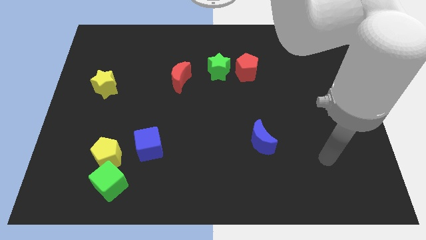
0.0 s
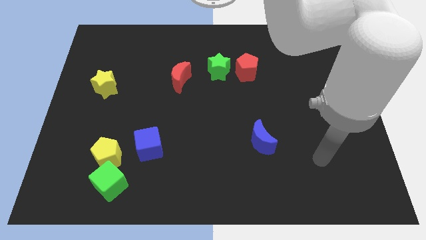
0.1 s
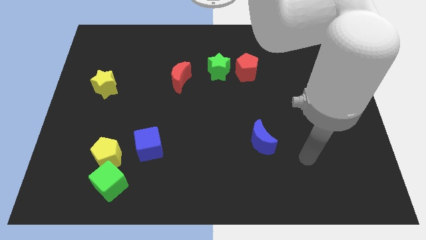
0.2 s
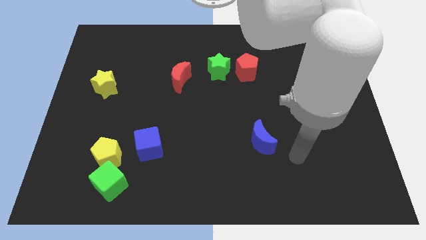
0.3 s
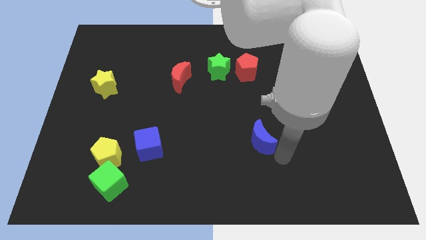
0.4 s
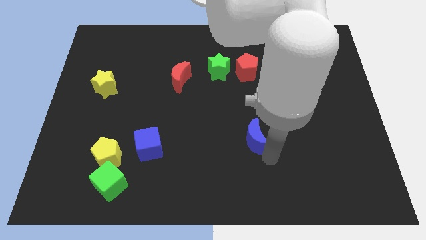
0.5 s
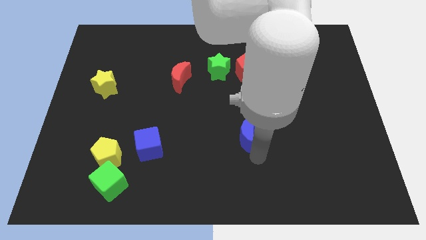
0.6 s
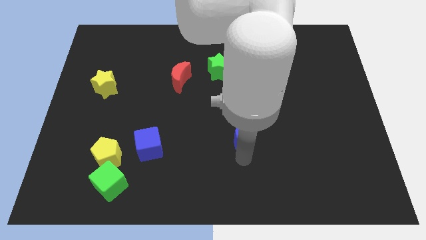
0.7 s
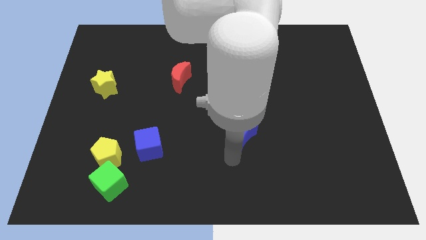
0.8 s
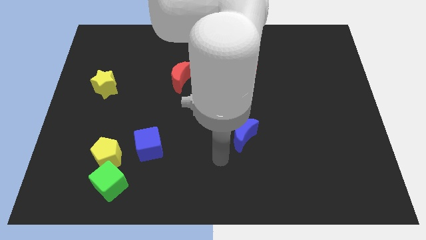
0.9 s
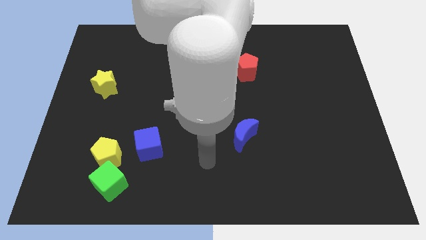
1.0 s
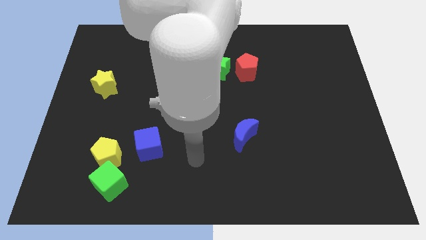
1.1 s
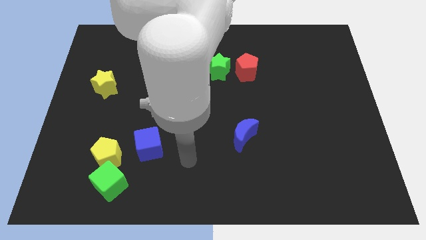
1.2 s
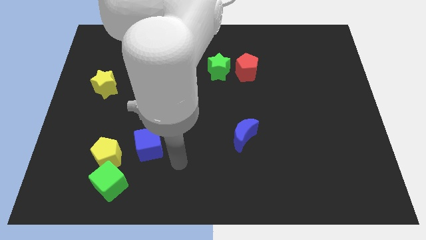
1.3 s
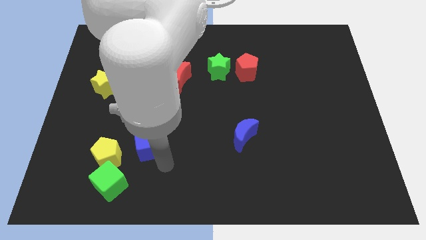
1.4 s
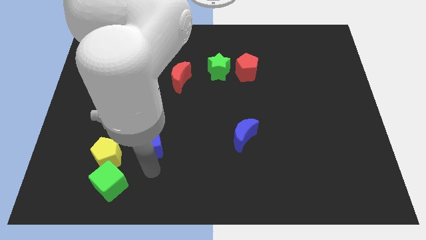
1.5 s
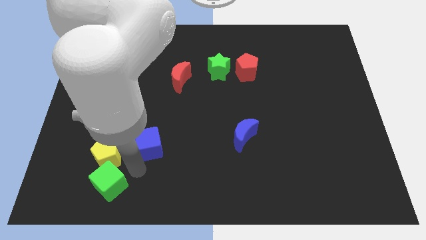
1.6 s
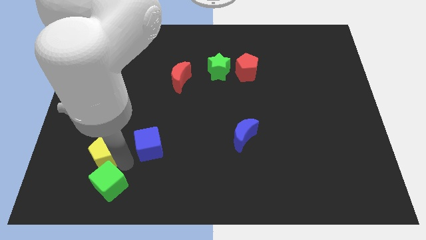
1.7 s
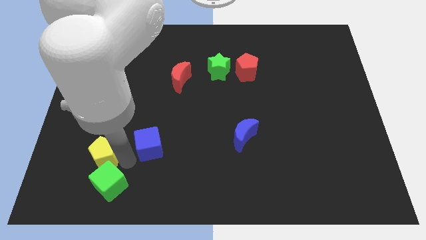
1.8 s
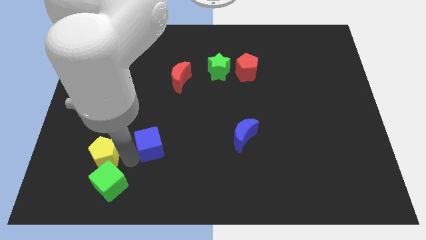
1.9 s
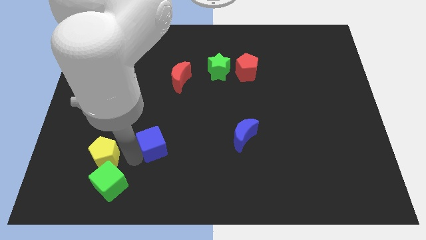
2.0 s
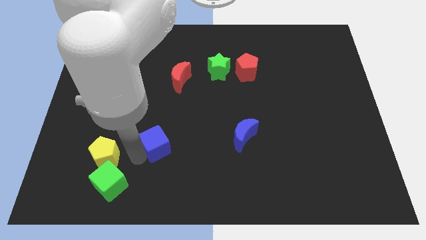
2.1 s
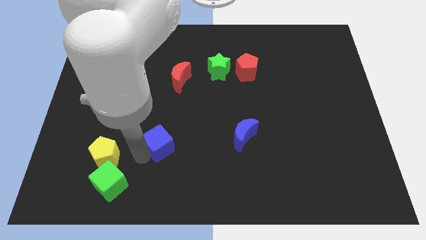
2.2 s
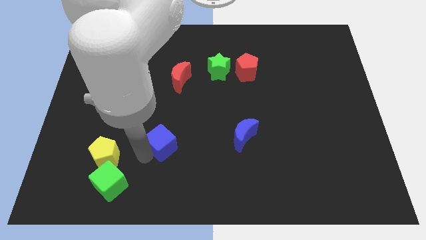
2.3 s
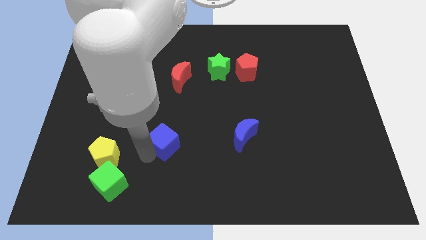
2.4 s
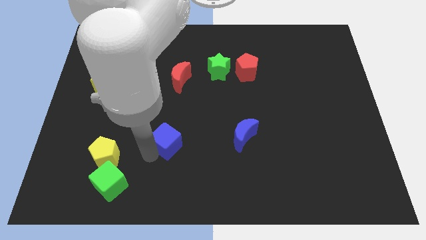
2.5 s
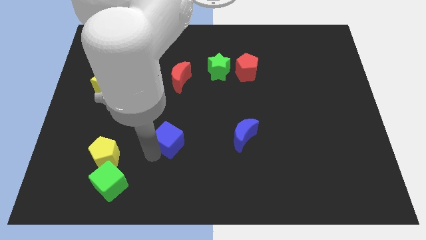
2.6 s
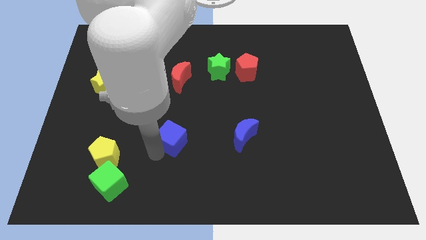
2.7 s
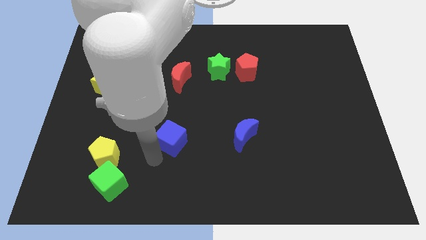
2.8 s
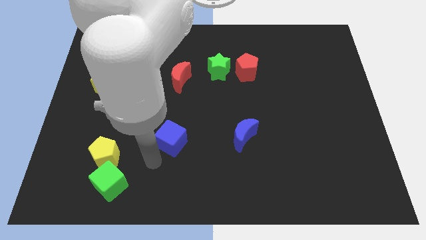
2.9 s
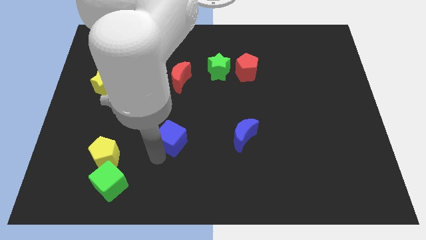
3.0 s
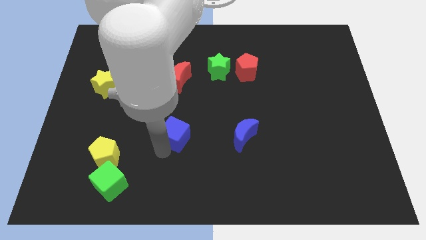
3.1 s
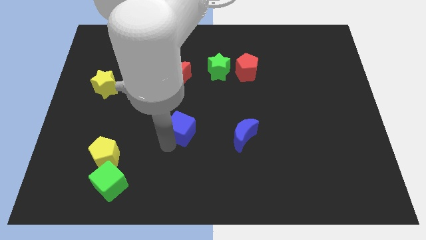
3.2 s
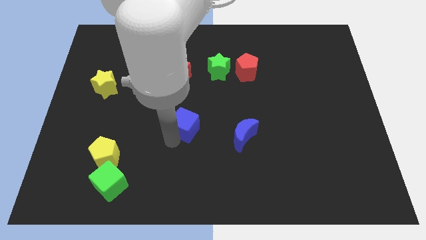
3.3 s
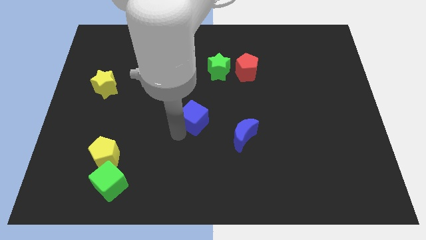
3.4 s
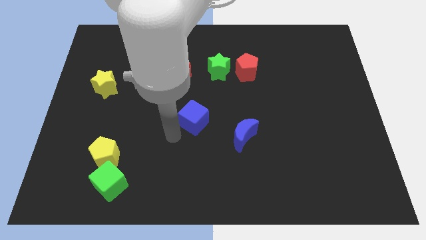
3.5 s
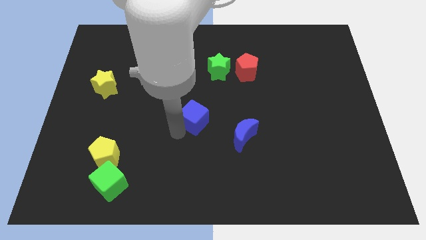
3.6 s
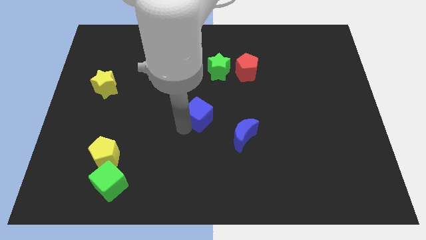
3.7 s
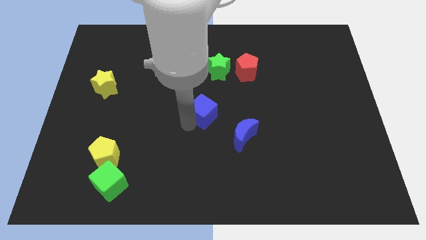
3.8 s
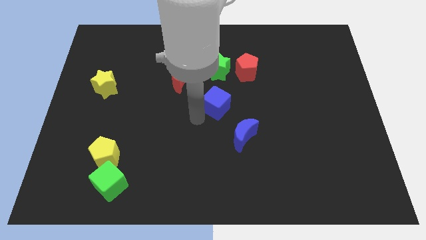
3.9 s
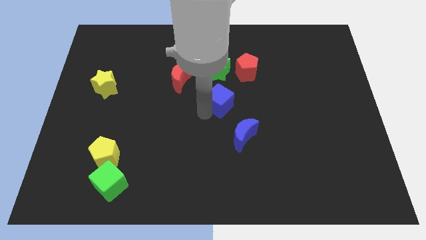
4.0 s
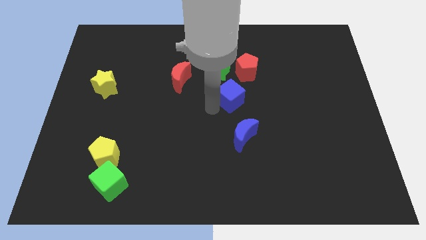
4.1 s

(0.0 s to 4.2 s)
slide the blue cube diagonally down and to the right of the green star

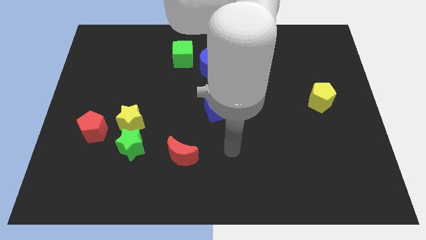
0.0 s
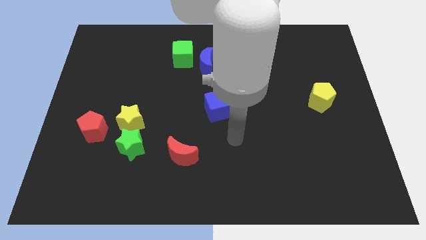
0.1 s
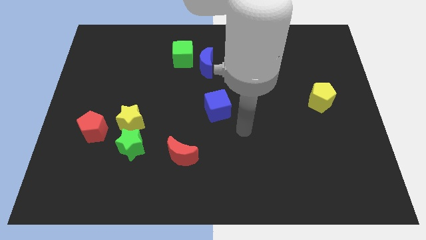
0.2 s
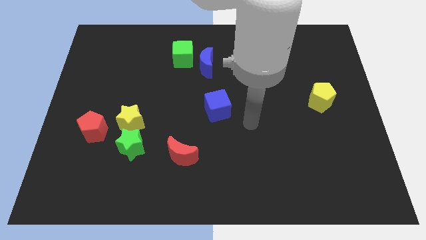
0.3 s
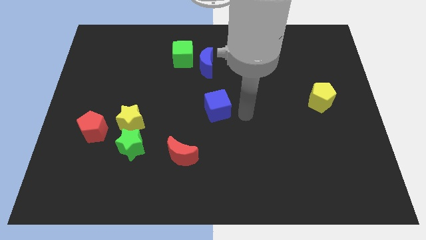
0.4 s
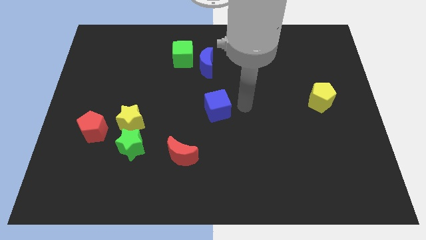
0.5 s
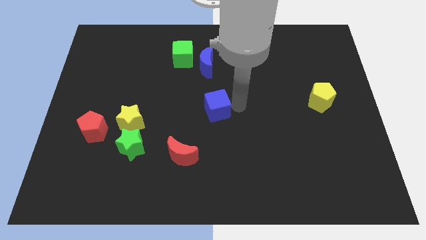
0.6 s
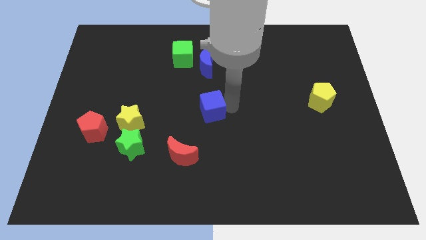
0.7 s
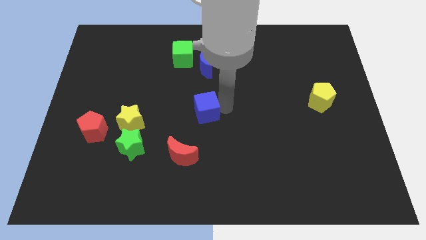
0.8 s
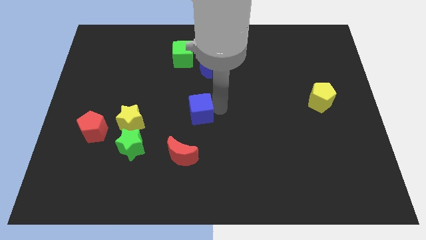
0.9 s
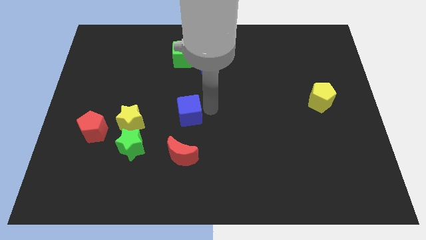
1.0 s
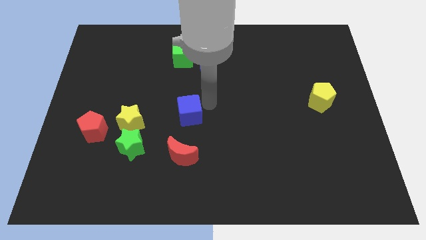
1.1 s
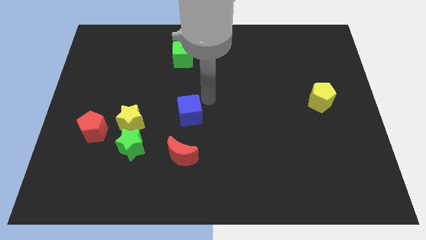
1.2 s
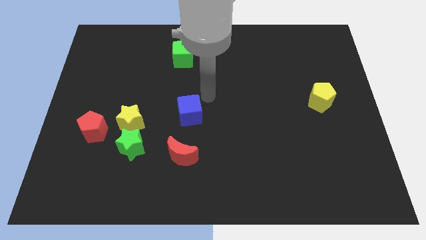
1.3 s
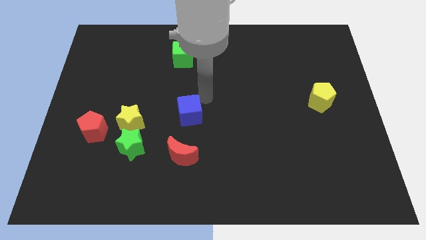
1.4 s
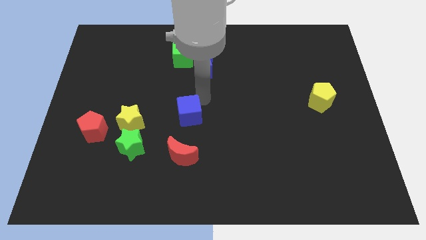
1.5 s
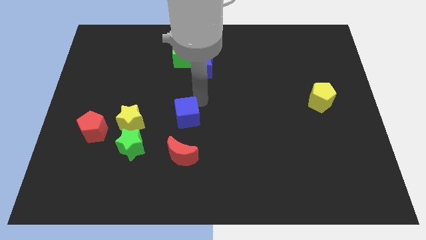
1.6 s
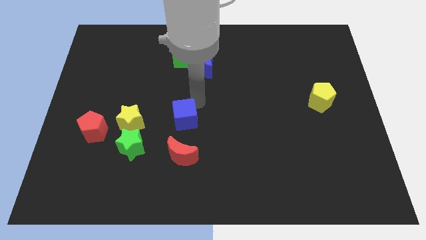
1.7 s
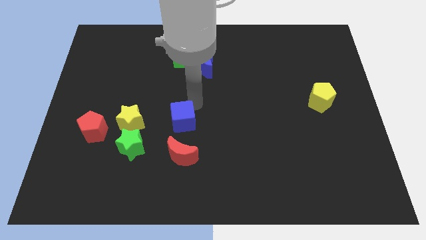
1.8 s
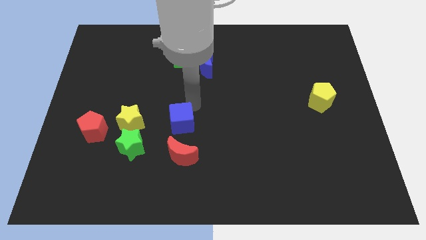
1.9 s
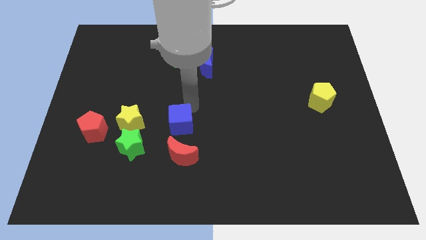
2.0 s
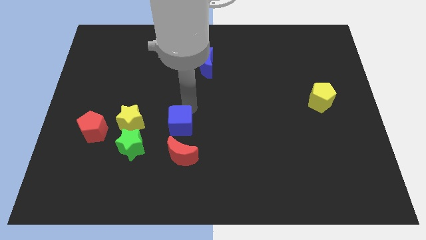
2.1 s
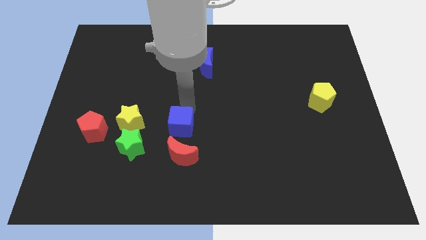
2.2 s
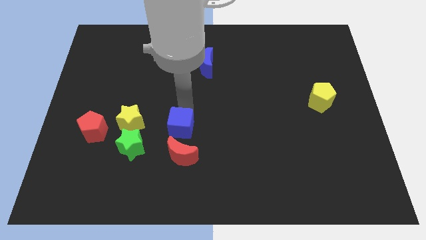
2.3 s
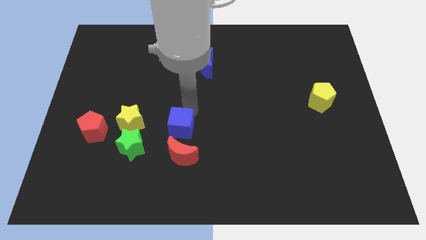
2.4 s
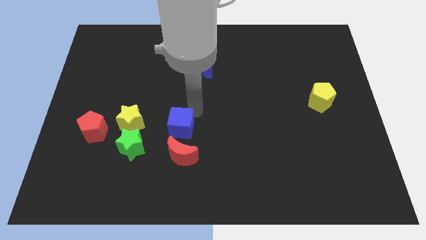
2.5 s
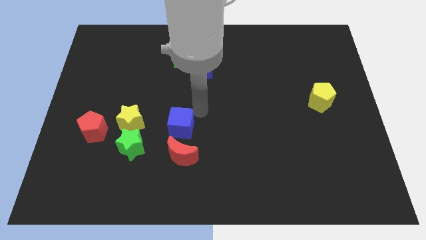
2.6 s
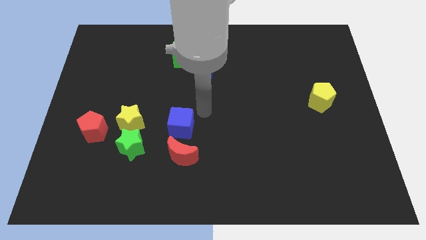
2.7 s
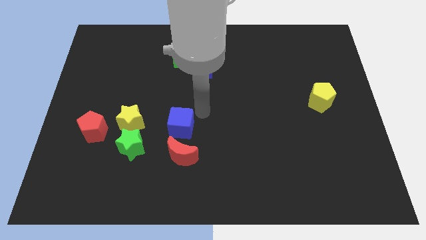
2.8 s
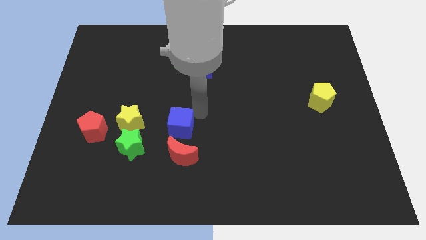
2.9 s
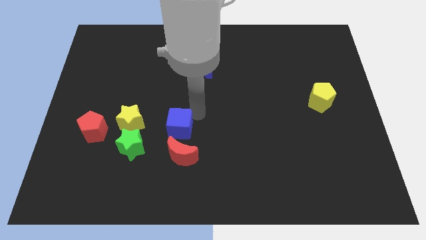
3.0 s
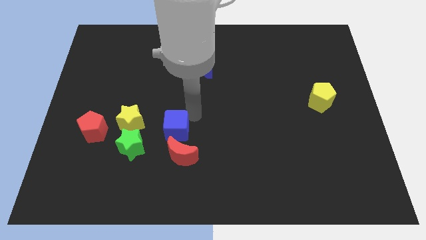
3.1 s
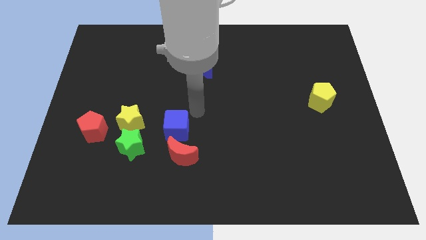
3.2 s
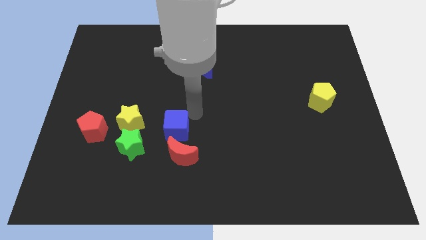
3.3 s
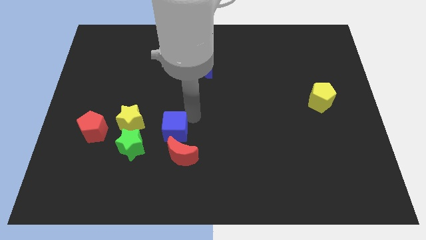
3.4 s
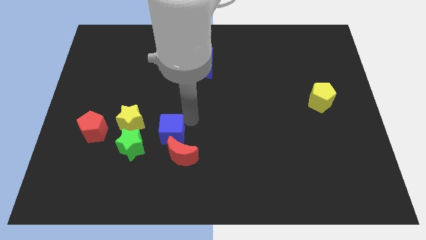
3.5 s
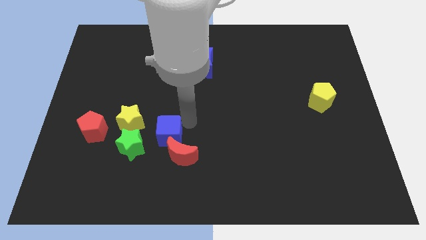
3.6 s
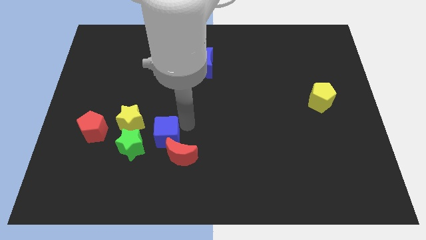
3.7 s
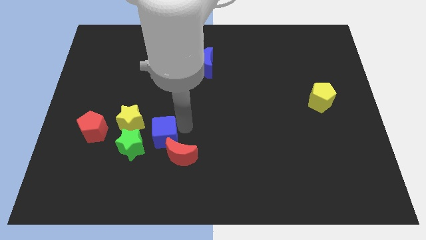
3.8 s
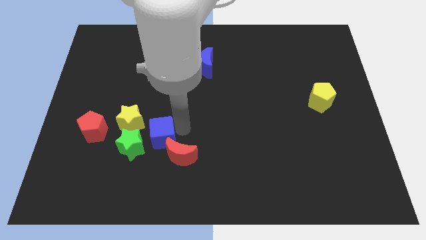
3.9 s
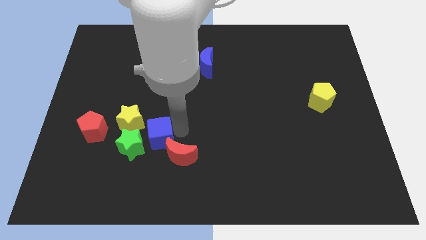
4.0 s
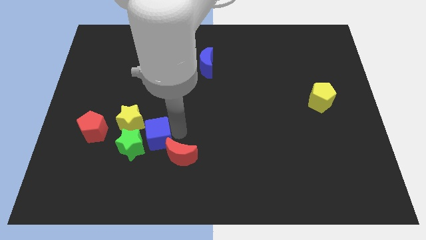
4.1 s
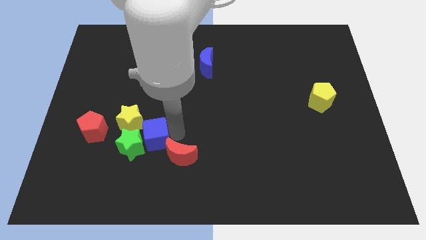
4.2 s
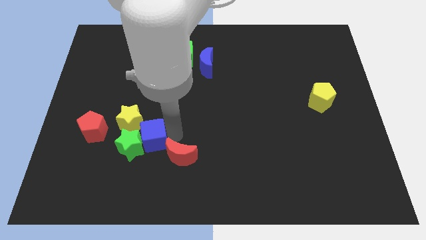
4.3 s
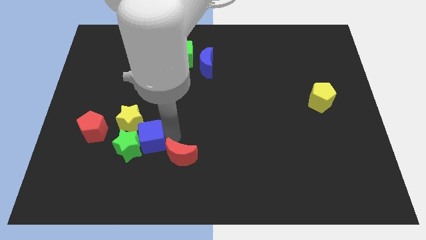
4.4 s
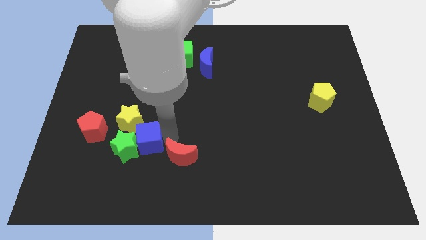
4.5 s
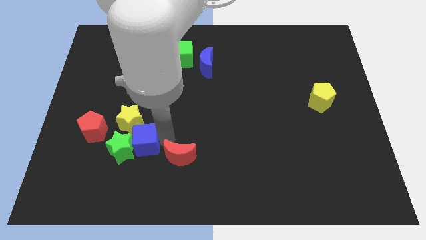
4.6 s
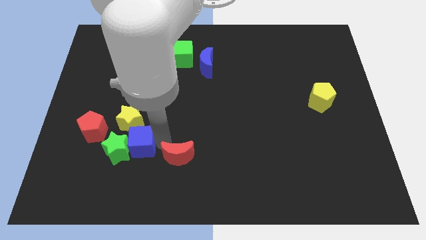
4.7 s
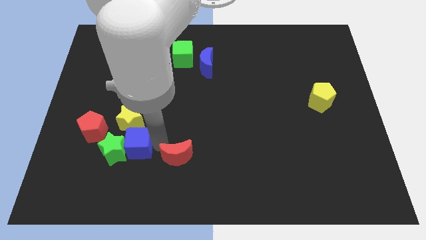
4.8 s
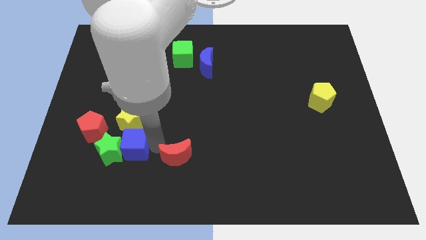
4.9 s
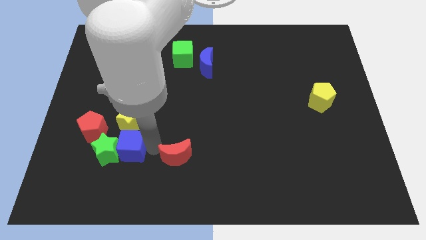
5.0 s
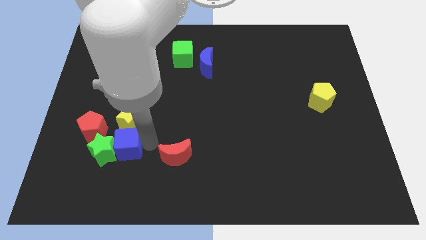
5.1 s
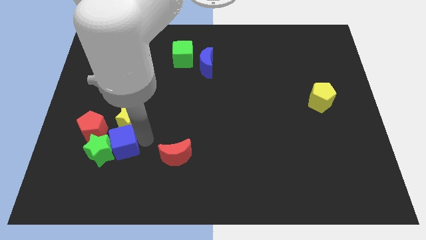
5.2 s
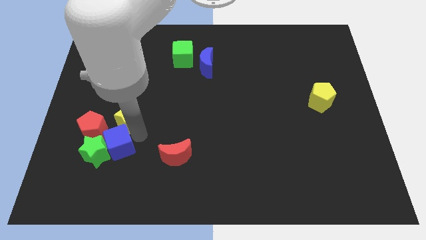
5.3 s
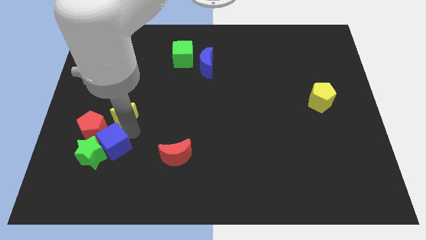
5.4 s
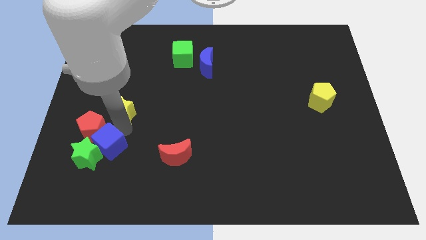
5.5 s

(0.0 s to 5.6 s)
put the blue cube to the bottom of the red pentagon
